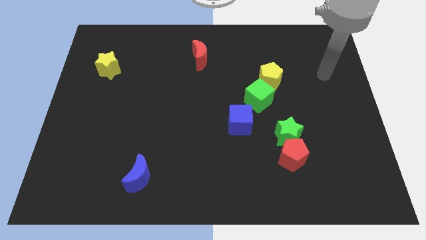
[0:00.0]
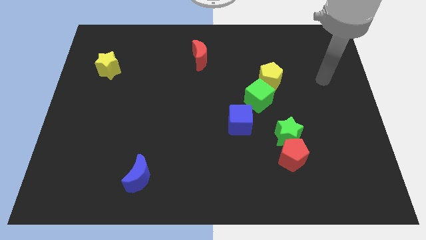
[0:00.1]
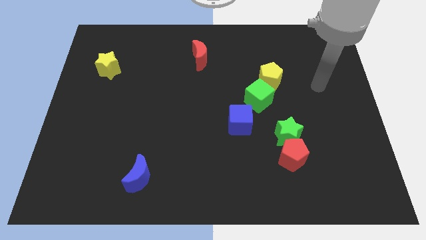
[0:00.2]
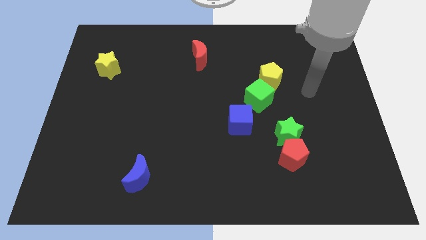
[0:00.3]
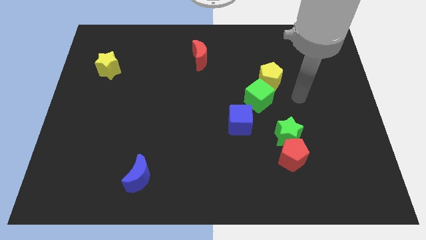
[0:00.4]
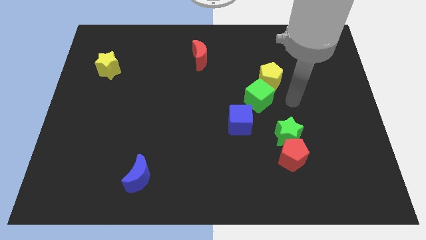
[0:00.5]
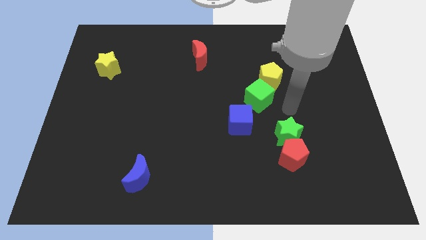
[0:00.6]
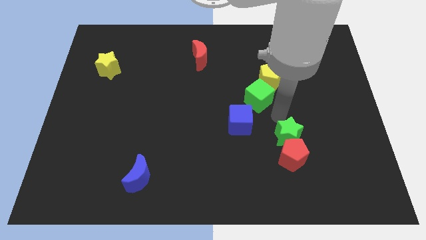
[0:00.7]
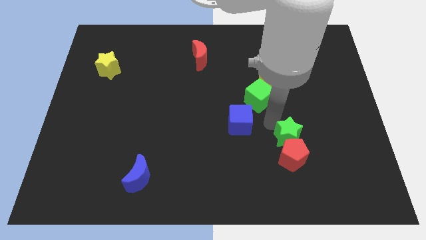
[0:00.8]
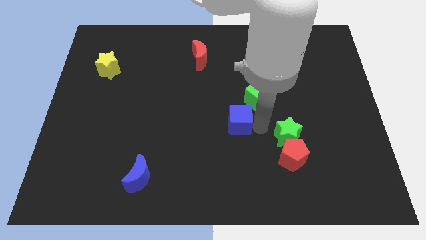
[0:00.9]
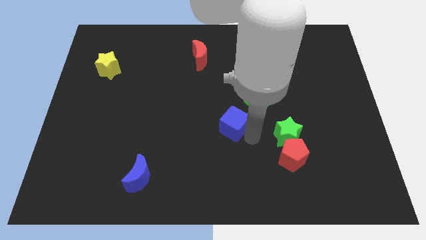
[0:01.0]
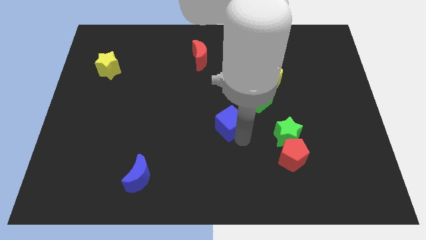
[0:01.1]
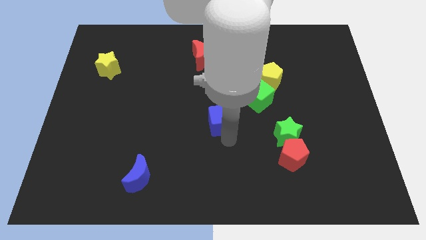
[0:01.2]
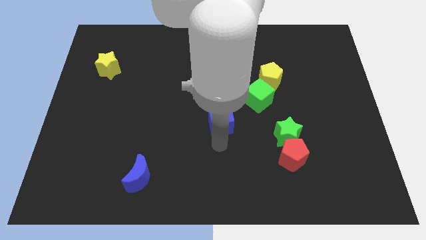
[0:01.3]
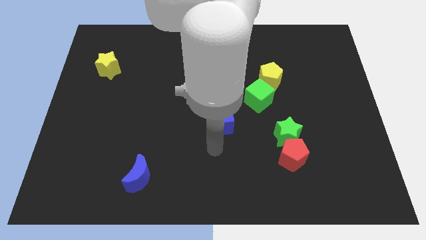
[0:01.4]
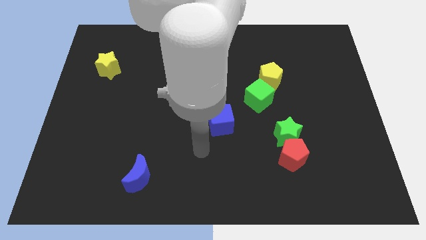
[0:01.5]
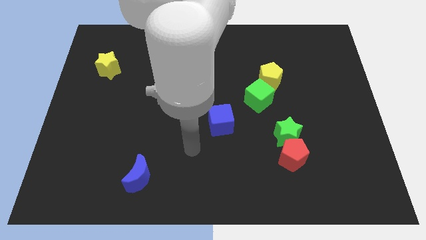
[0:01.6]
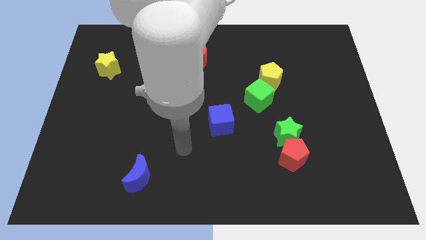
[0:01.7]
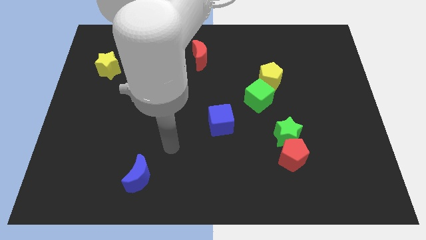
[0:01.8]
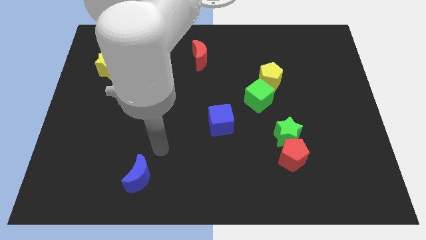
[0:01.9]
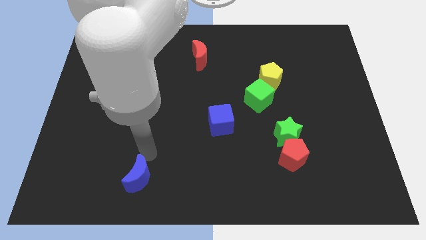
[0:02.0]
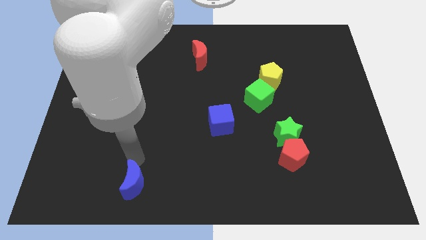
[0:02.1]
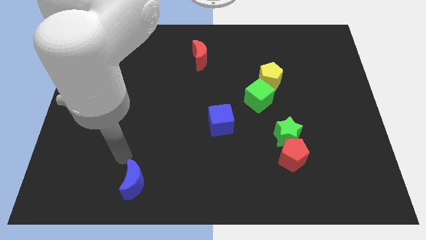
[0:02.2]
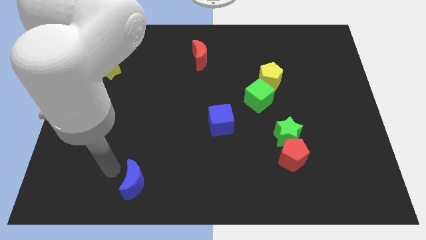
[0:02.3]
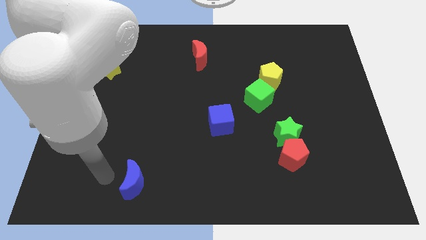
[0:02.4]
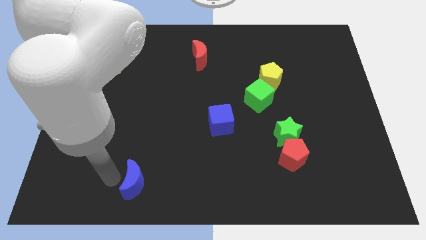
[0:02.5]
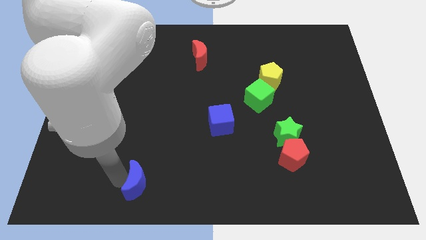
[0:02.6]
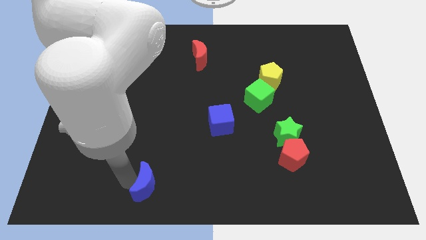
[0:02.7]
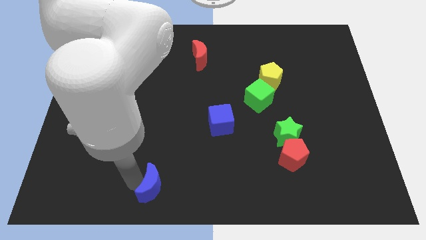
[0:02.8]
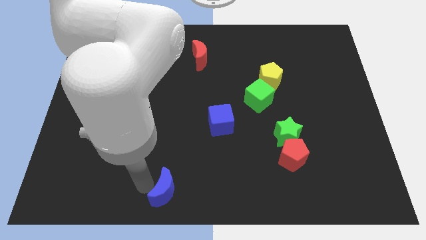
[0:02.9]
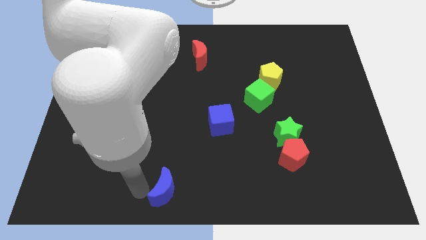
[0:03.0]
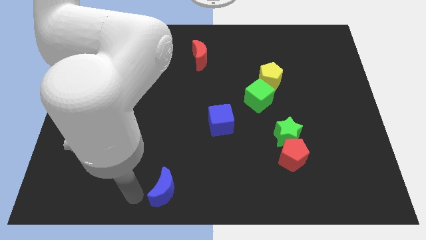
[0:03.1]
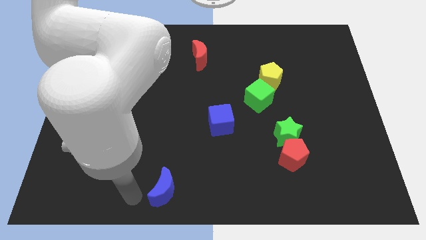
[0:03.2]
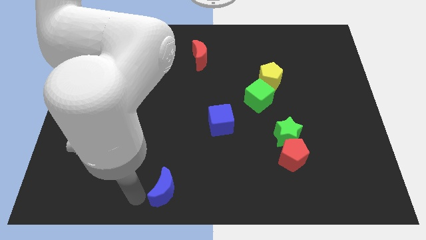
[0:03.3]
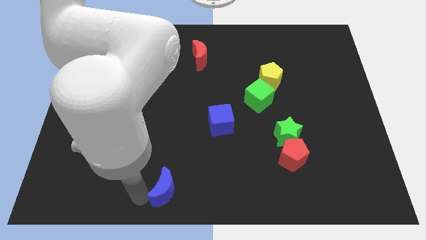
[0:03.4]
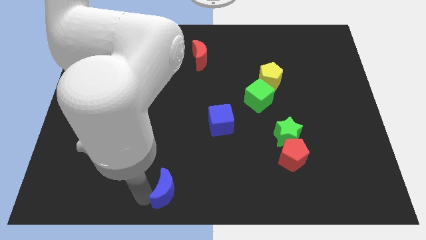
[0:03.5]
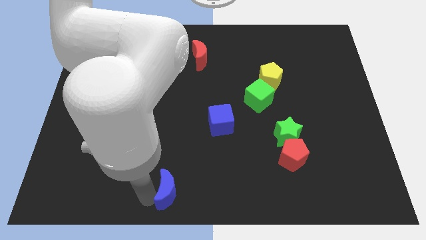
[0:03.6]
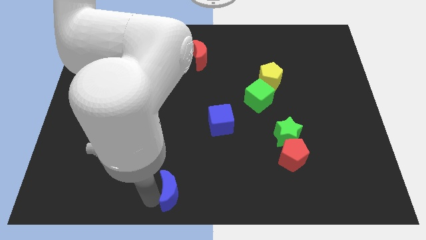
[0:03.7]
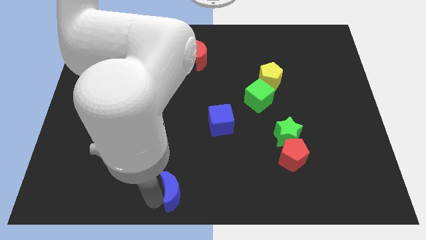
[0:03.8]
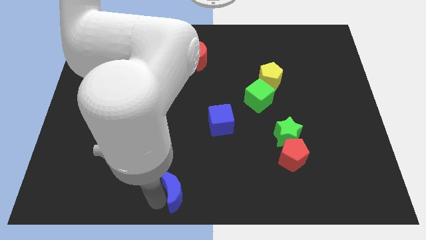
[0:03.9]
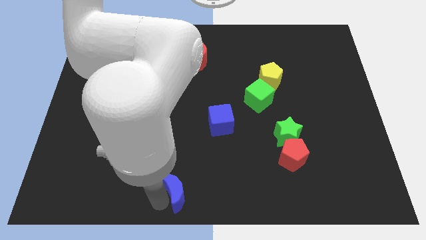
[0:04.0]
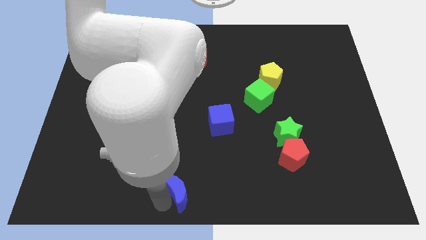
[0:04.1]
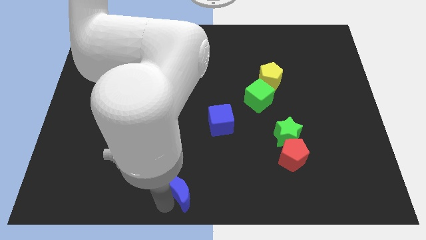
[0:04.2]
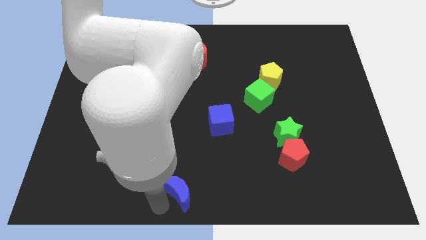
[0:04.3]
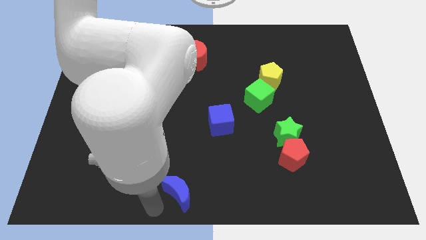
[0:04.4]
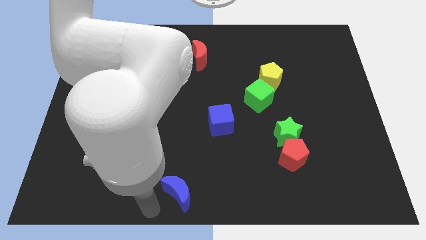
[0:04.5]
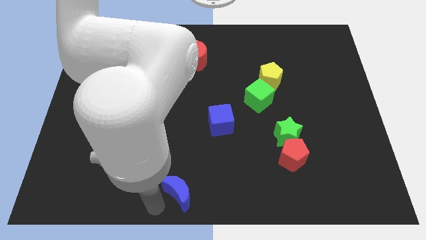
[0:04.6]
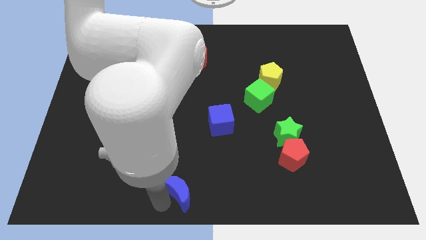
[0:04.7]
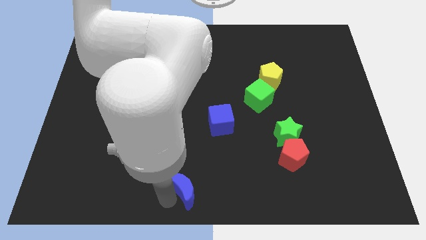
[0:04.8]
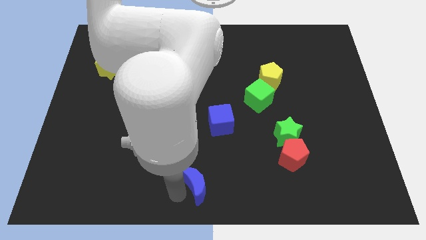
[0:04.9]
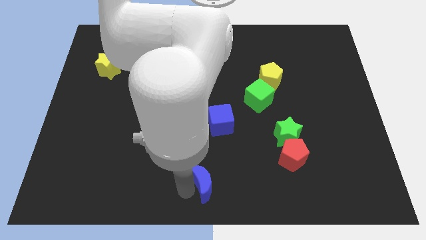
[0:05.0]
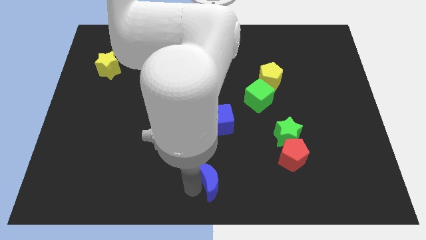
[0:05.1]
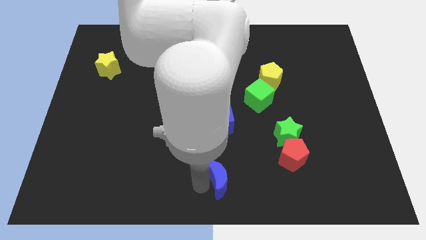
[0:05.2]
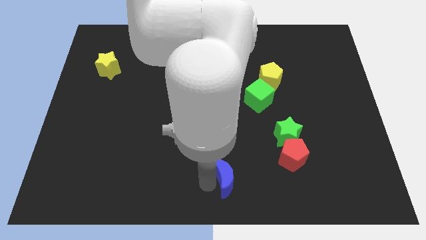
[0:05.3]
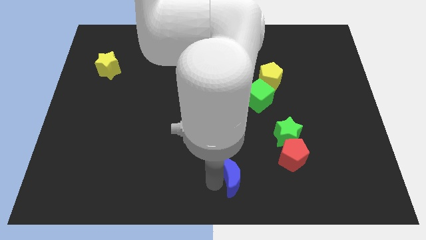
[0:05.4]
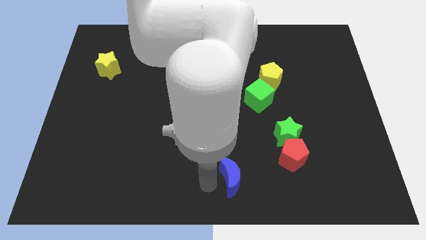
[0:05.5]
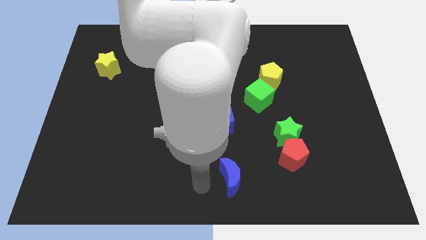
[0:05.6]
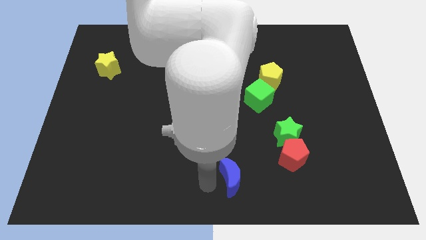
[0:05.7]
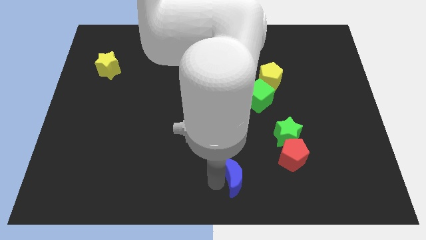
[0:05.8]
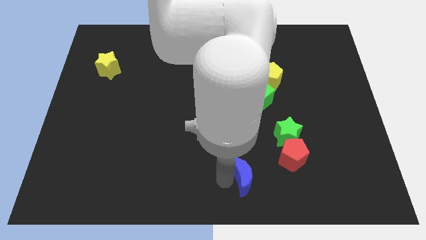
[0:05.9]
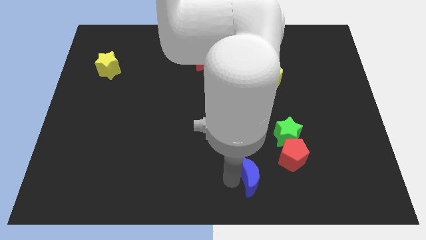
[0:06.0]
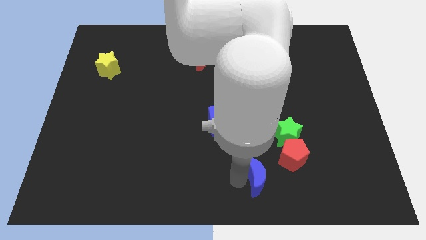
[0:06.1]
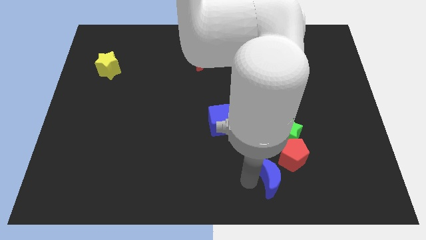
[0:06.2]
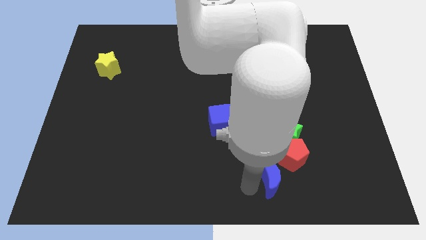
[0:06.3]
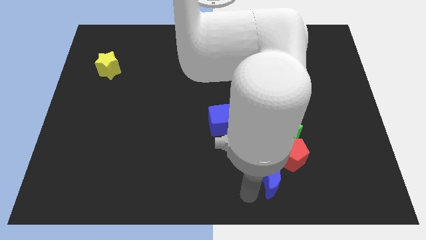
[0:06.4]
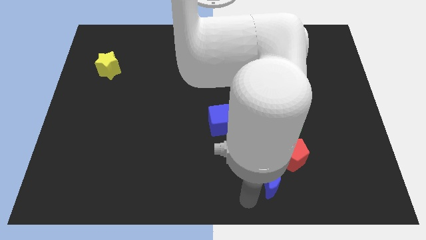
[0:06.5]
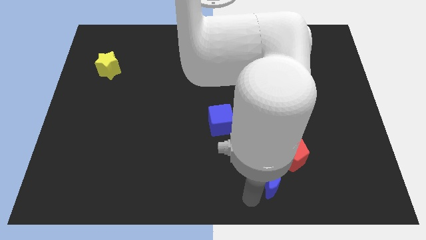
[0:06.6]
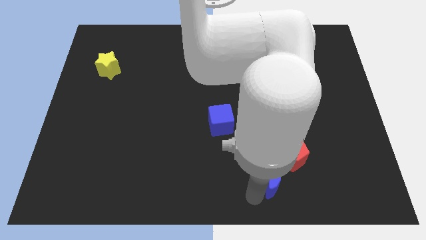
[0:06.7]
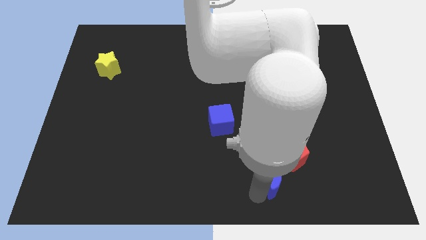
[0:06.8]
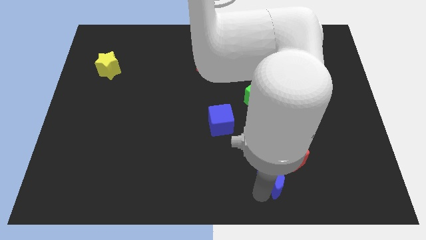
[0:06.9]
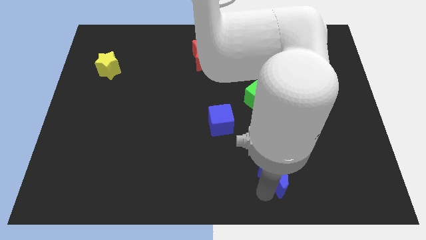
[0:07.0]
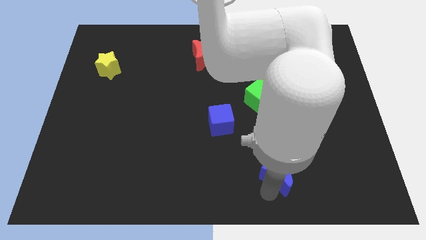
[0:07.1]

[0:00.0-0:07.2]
slide the blue moon close to the red pentagon

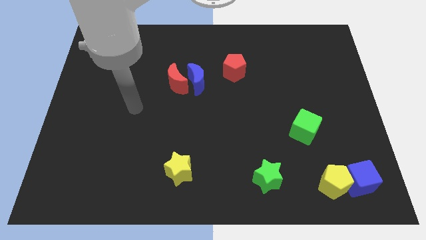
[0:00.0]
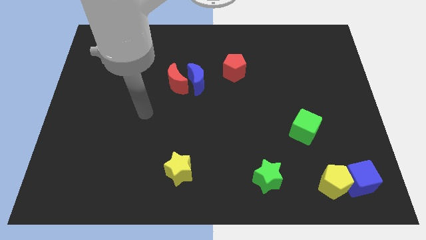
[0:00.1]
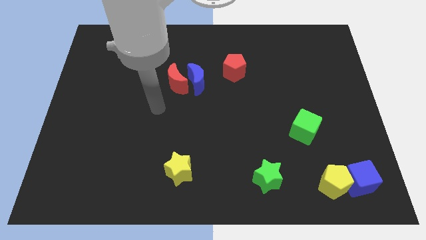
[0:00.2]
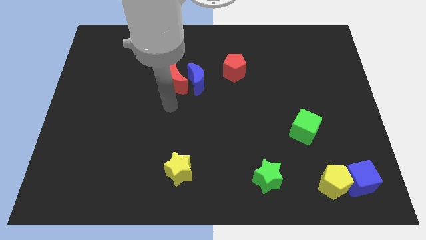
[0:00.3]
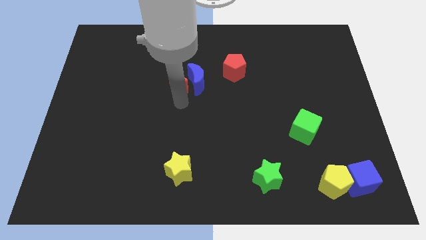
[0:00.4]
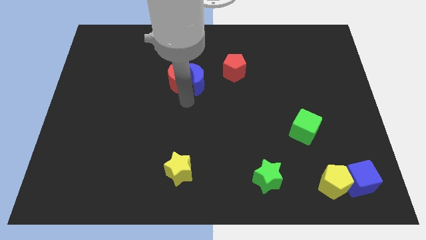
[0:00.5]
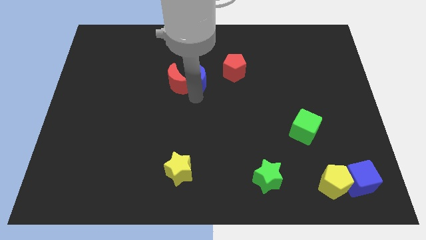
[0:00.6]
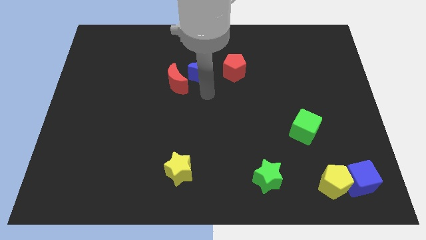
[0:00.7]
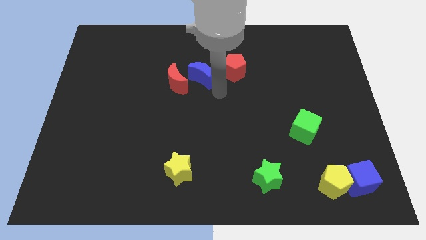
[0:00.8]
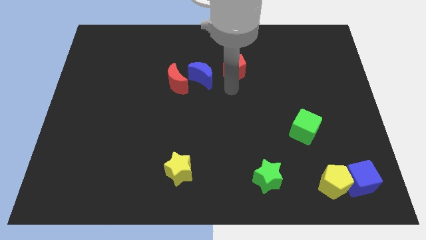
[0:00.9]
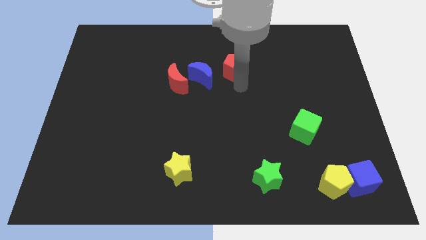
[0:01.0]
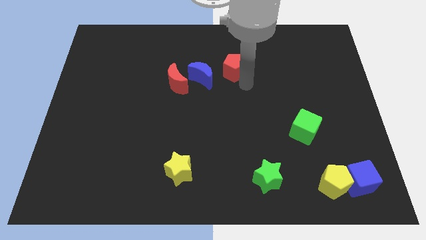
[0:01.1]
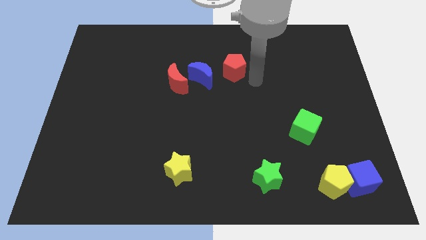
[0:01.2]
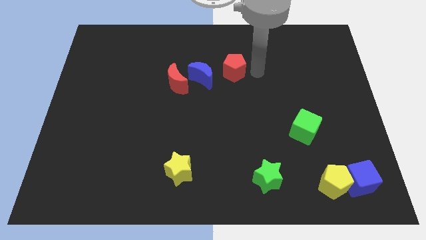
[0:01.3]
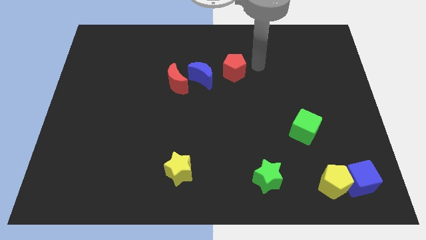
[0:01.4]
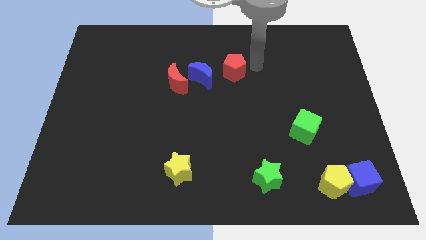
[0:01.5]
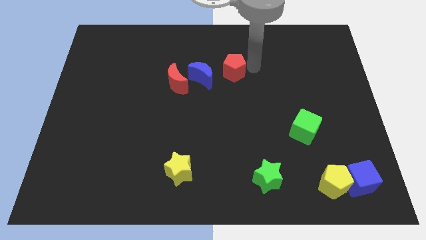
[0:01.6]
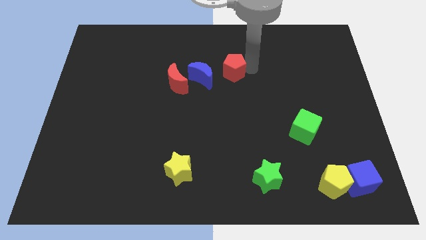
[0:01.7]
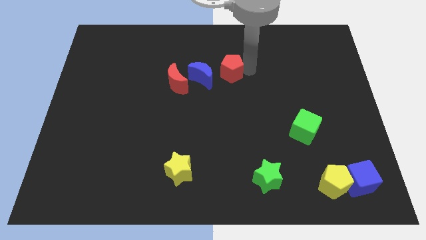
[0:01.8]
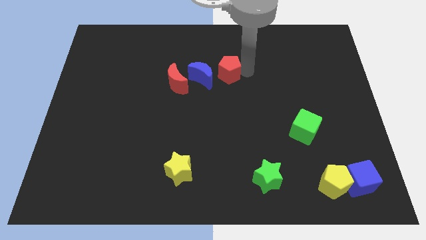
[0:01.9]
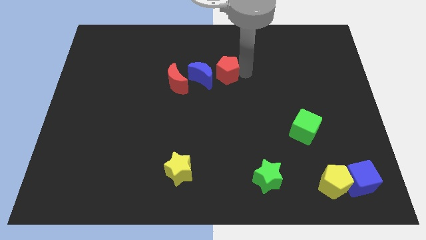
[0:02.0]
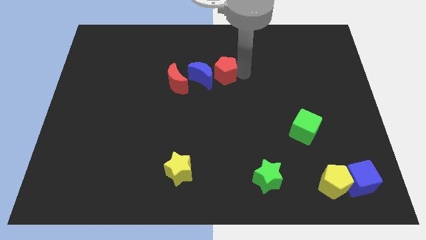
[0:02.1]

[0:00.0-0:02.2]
move the red pentagon towards the blue moon
